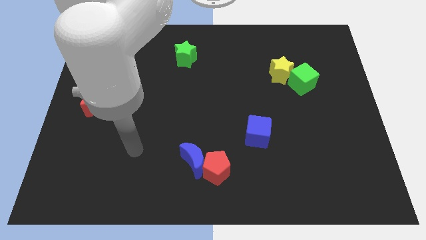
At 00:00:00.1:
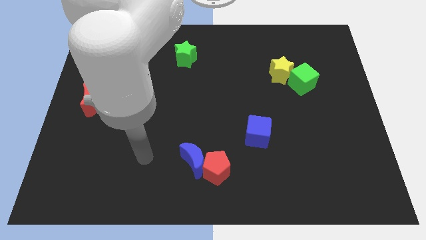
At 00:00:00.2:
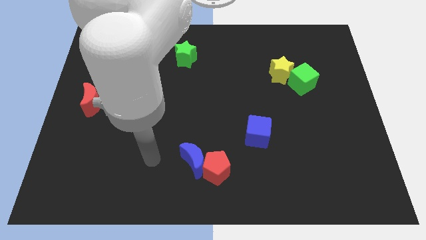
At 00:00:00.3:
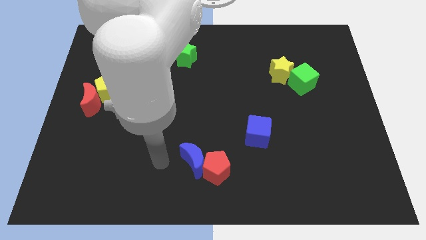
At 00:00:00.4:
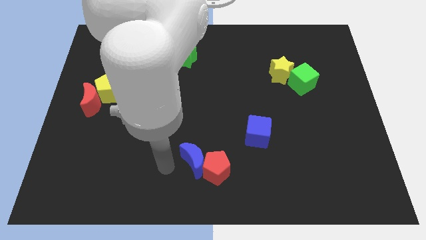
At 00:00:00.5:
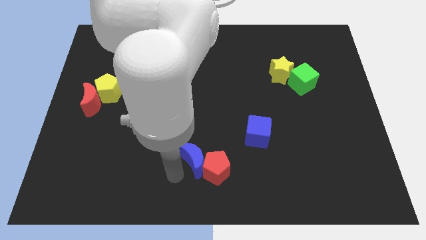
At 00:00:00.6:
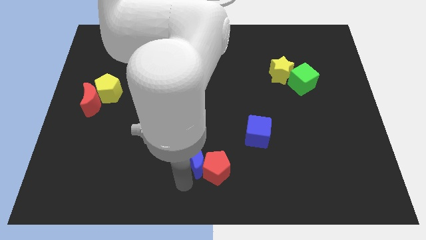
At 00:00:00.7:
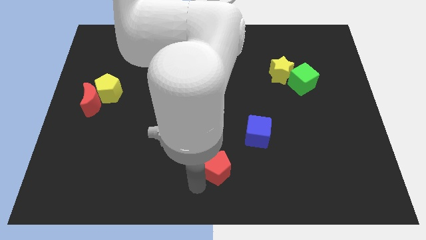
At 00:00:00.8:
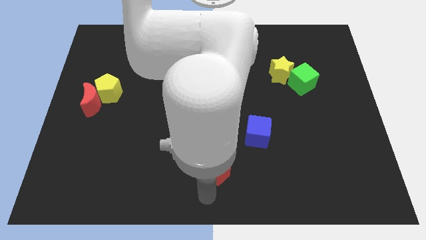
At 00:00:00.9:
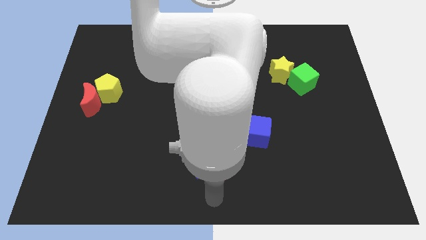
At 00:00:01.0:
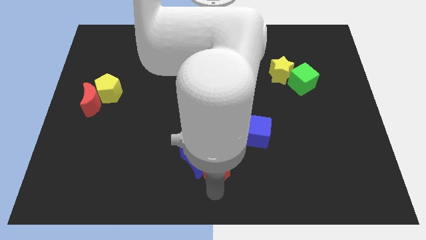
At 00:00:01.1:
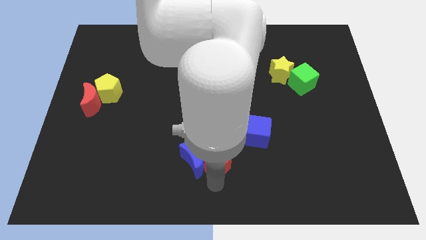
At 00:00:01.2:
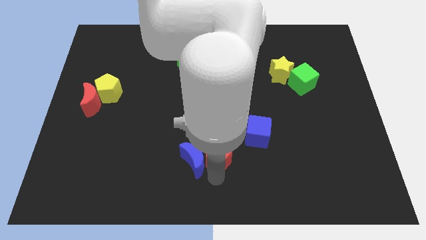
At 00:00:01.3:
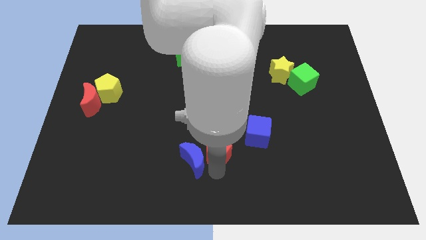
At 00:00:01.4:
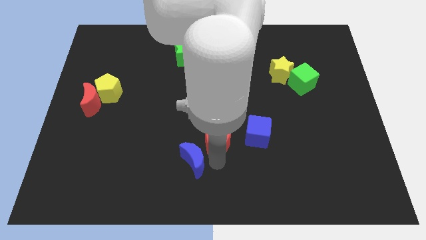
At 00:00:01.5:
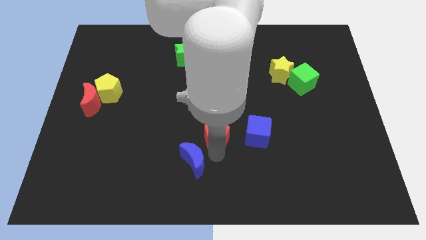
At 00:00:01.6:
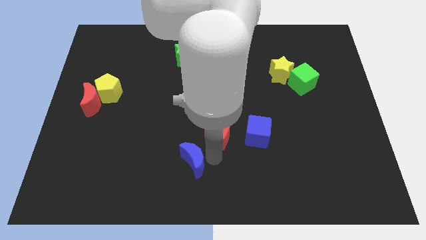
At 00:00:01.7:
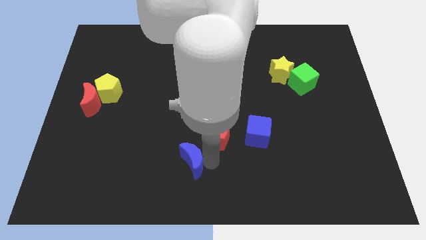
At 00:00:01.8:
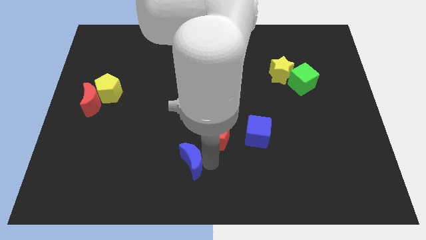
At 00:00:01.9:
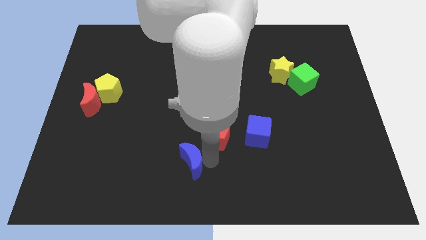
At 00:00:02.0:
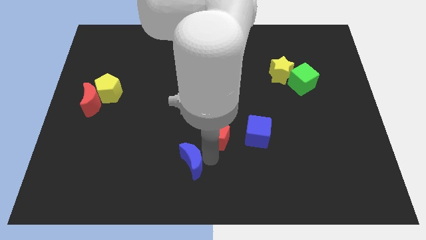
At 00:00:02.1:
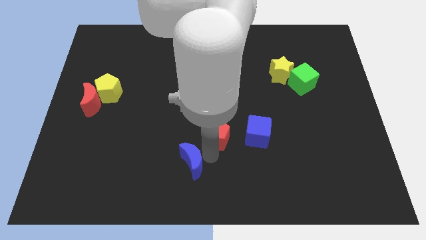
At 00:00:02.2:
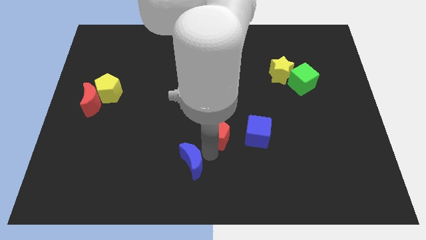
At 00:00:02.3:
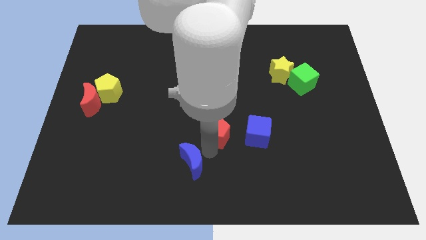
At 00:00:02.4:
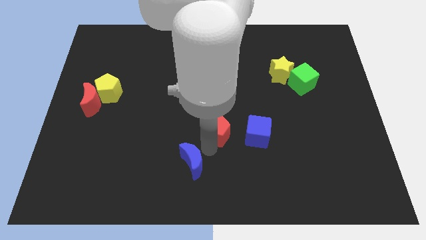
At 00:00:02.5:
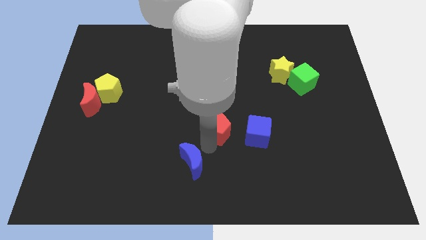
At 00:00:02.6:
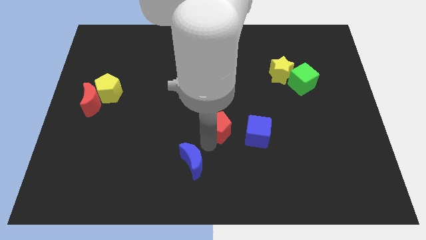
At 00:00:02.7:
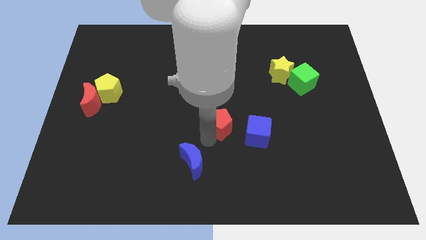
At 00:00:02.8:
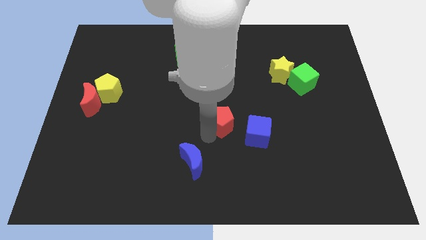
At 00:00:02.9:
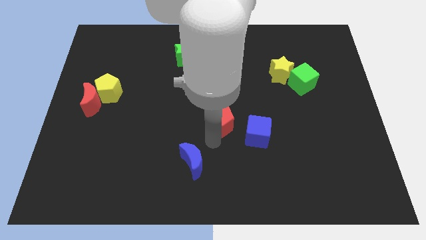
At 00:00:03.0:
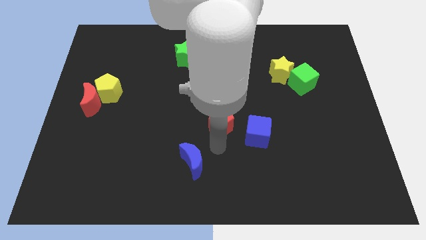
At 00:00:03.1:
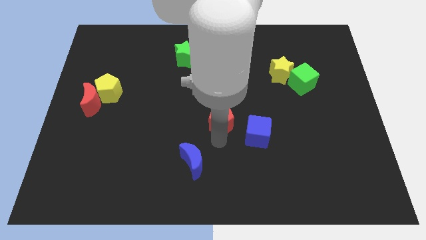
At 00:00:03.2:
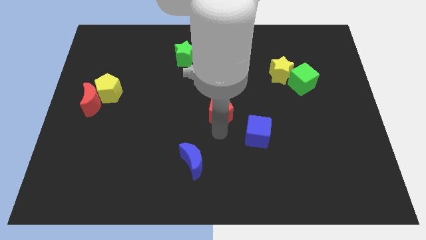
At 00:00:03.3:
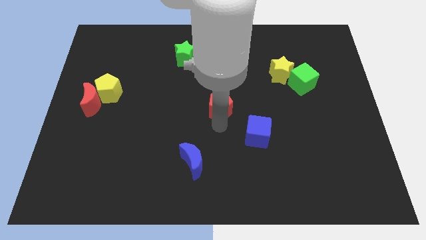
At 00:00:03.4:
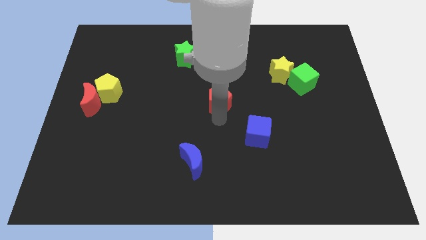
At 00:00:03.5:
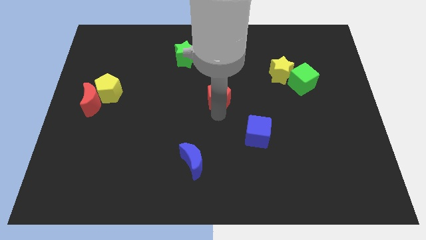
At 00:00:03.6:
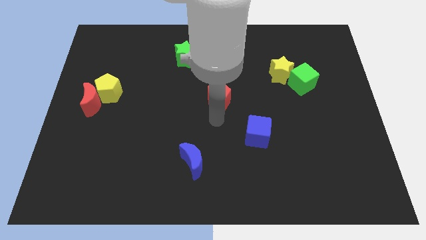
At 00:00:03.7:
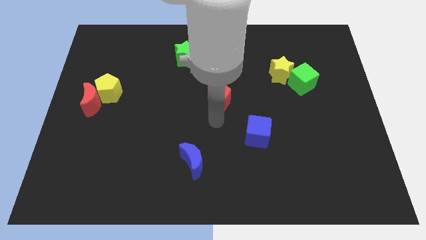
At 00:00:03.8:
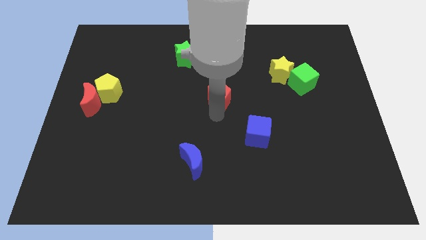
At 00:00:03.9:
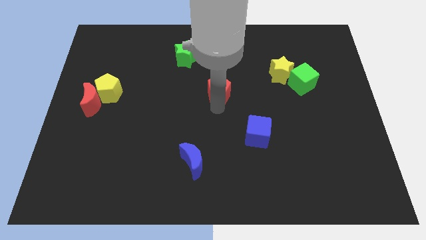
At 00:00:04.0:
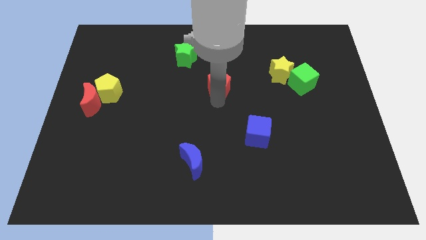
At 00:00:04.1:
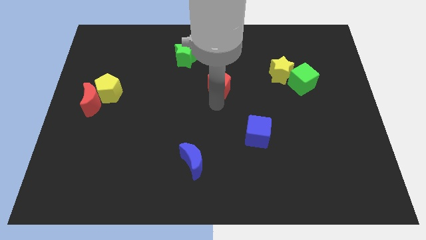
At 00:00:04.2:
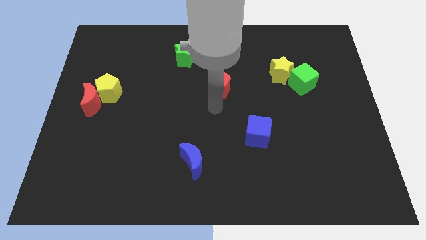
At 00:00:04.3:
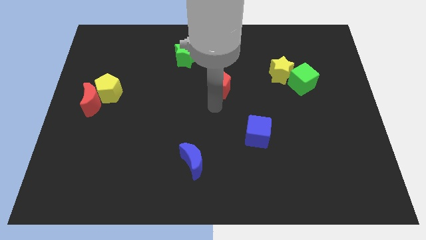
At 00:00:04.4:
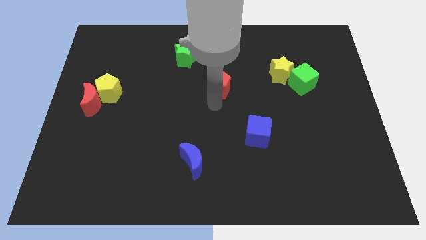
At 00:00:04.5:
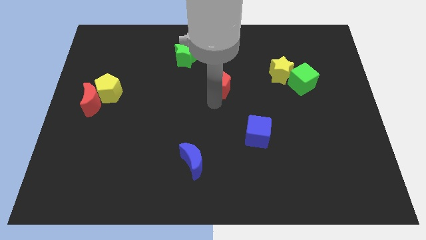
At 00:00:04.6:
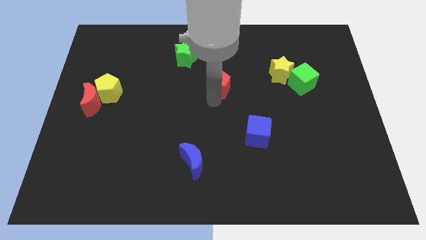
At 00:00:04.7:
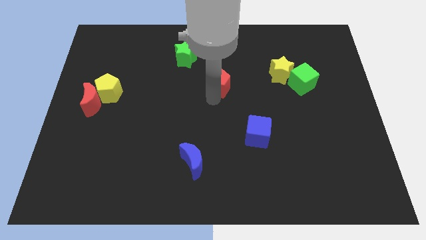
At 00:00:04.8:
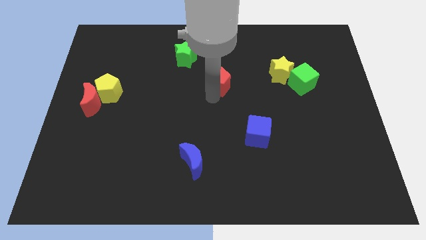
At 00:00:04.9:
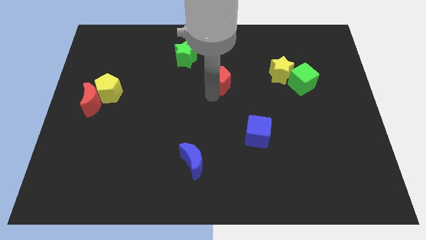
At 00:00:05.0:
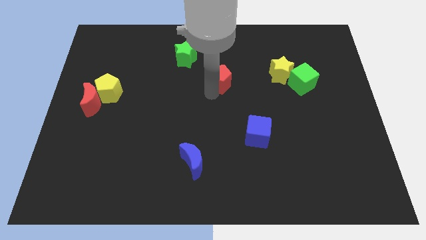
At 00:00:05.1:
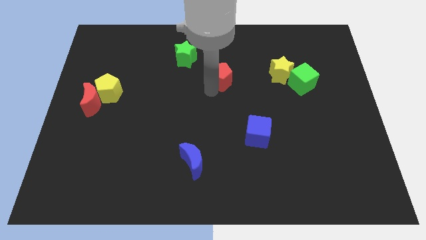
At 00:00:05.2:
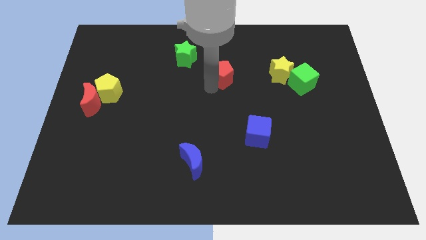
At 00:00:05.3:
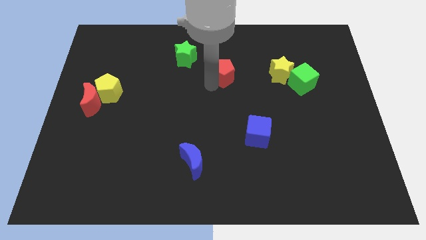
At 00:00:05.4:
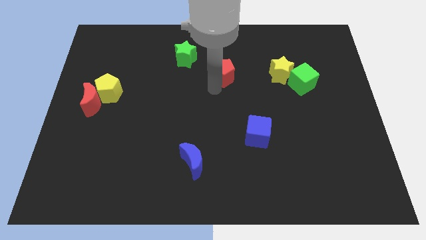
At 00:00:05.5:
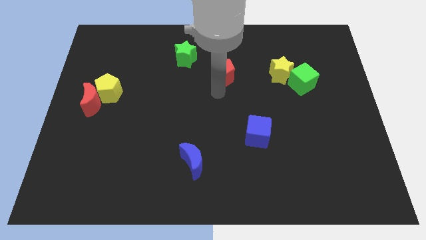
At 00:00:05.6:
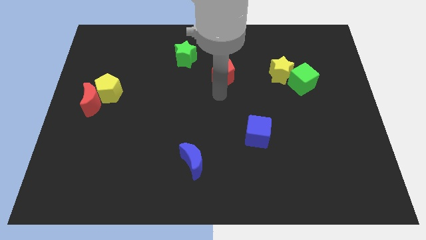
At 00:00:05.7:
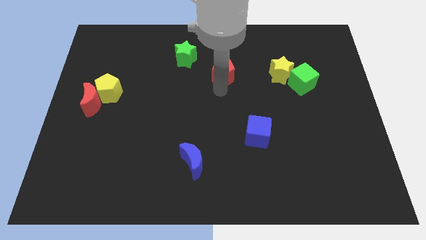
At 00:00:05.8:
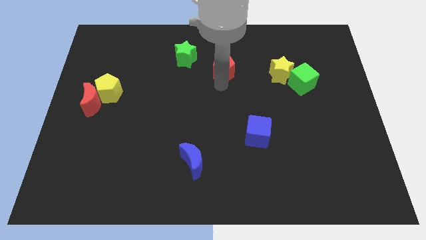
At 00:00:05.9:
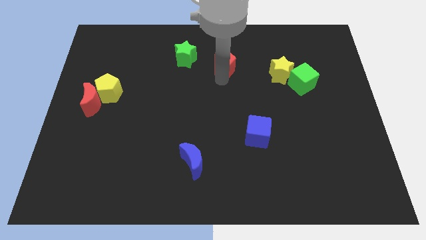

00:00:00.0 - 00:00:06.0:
put the red pentagon just right of the green star

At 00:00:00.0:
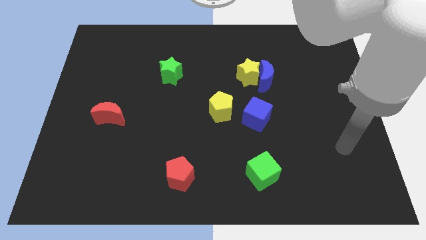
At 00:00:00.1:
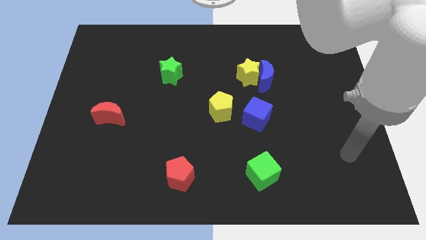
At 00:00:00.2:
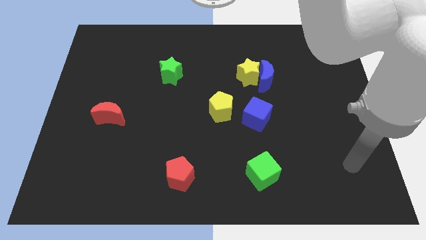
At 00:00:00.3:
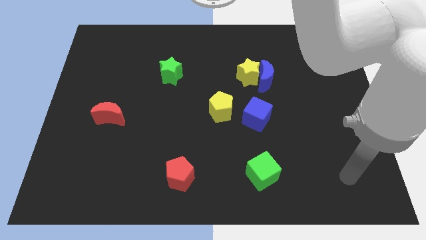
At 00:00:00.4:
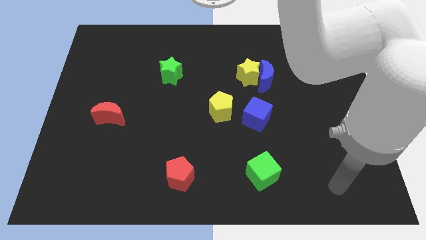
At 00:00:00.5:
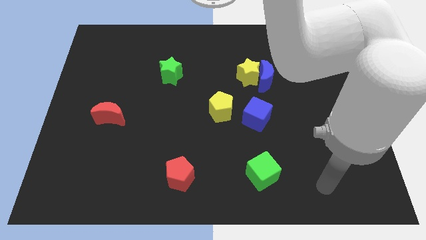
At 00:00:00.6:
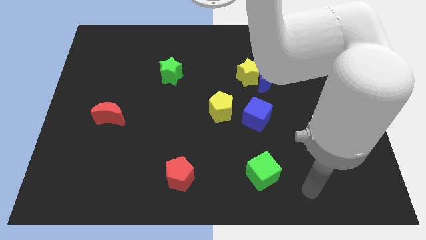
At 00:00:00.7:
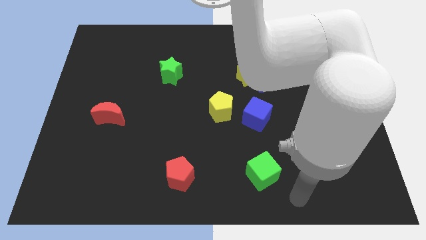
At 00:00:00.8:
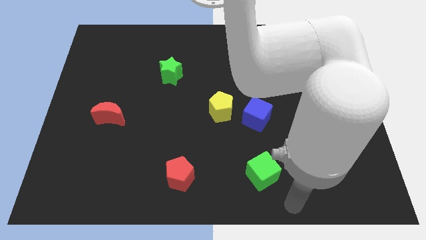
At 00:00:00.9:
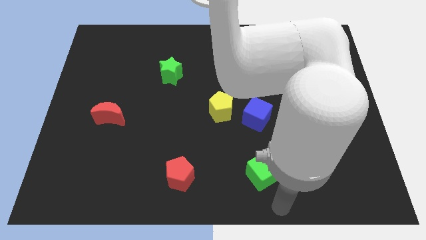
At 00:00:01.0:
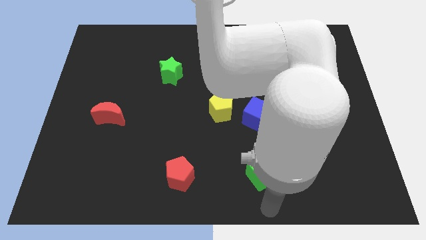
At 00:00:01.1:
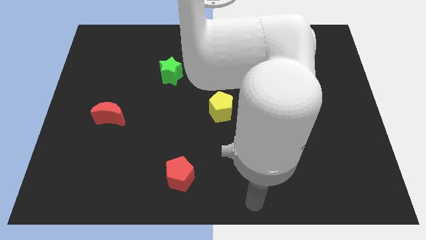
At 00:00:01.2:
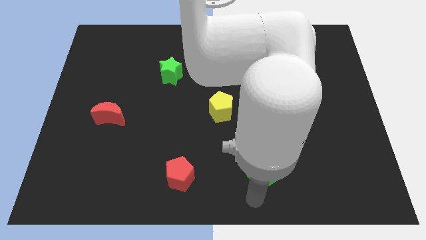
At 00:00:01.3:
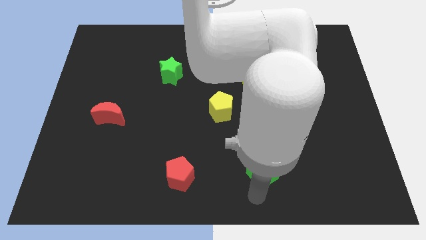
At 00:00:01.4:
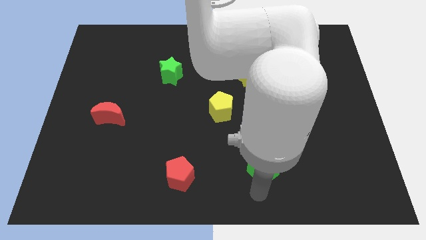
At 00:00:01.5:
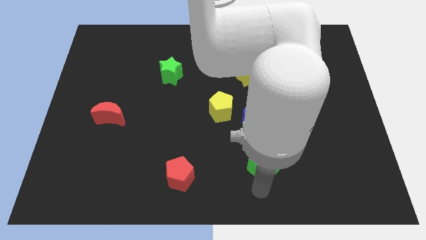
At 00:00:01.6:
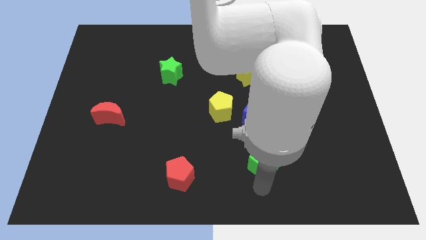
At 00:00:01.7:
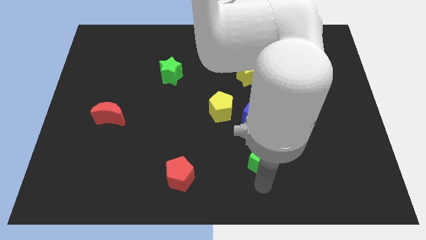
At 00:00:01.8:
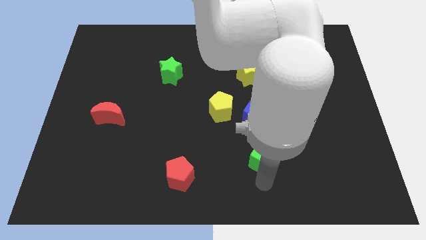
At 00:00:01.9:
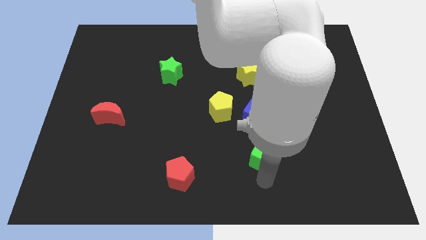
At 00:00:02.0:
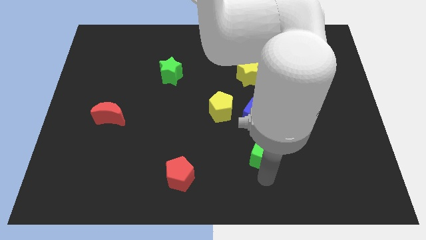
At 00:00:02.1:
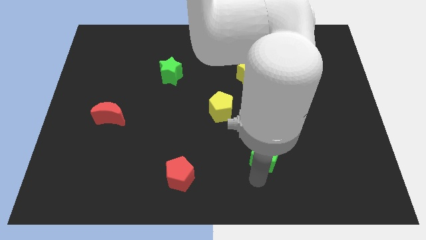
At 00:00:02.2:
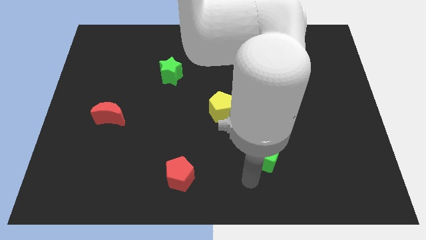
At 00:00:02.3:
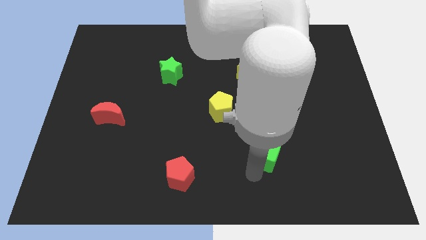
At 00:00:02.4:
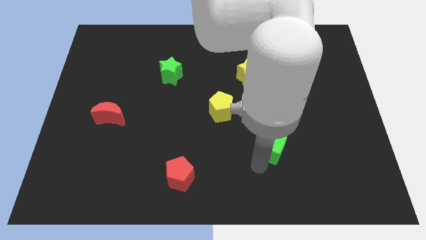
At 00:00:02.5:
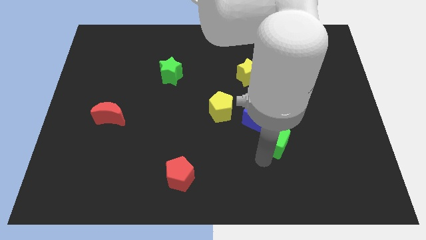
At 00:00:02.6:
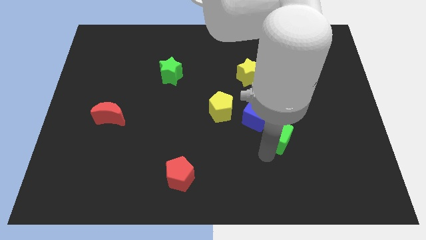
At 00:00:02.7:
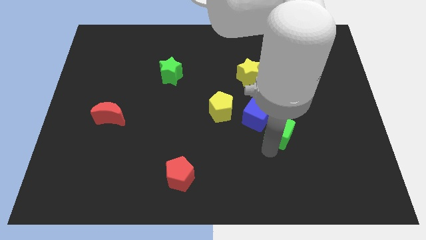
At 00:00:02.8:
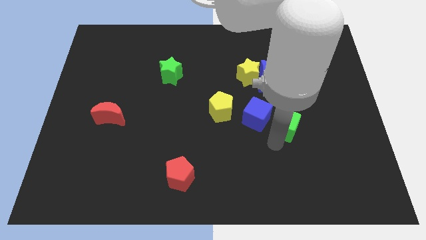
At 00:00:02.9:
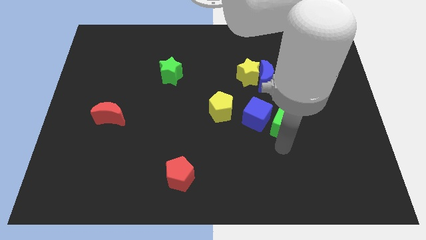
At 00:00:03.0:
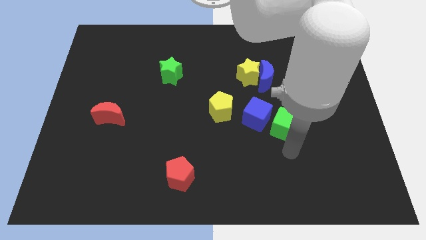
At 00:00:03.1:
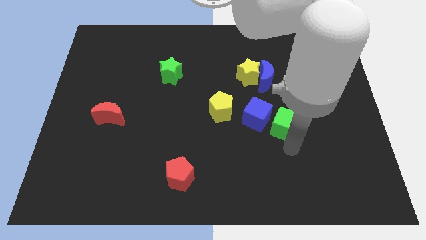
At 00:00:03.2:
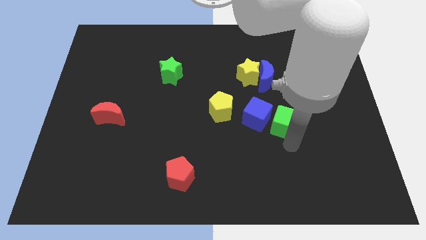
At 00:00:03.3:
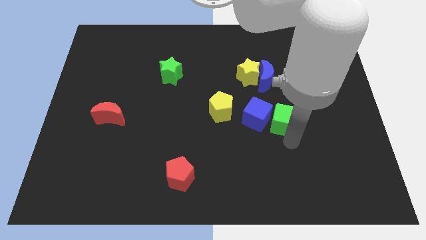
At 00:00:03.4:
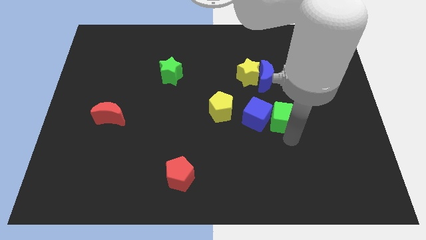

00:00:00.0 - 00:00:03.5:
move the green cube to the top right of the blue cube
